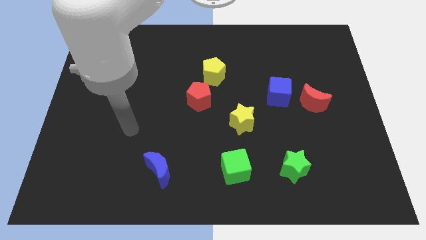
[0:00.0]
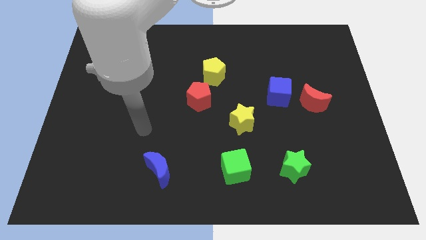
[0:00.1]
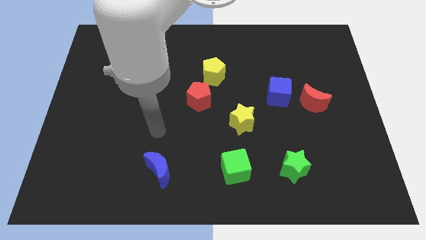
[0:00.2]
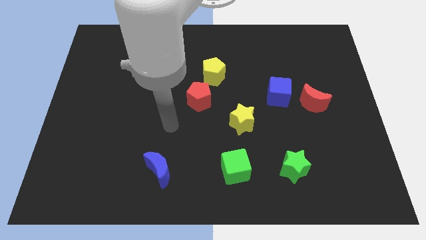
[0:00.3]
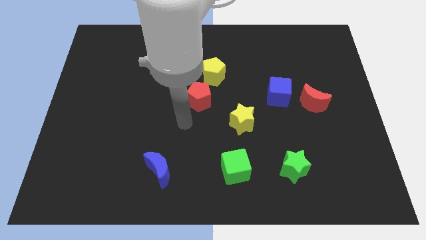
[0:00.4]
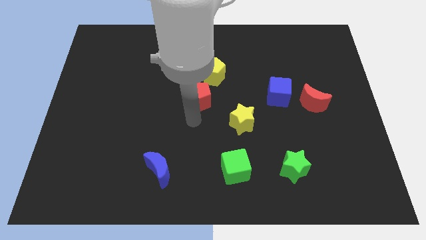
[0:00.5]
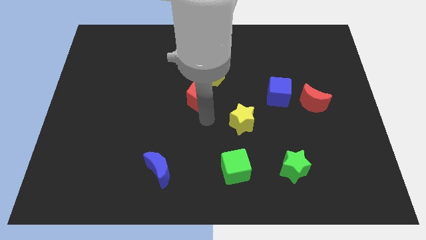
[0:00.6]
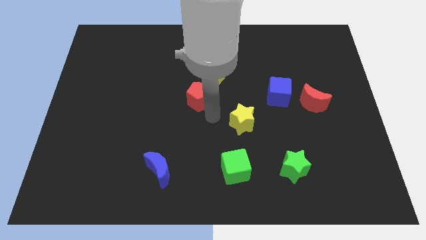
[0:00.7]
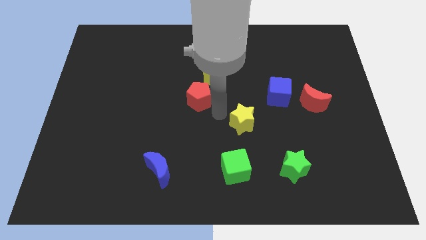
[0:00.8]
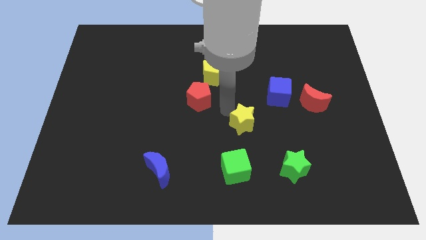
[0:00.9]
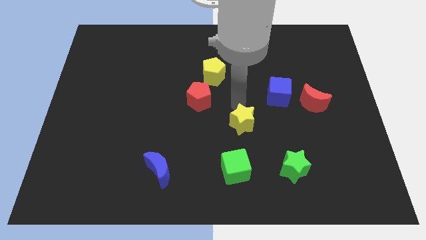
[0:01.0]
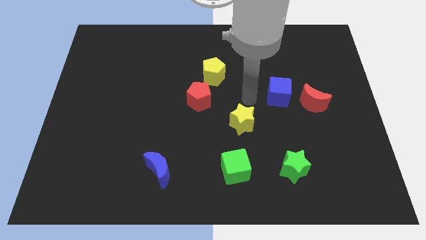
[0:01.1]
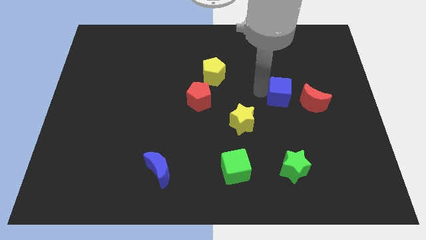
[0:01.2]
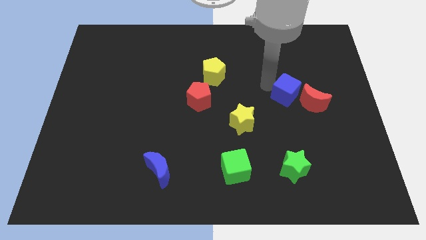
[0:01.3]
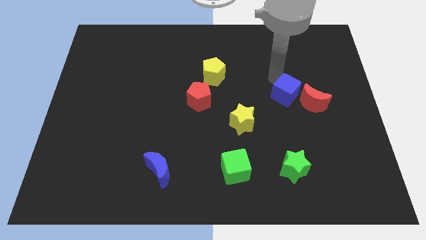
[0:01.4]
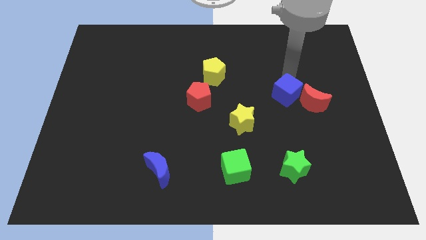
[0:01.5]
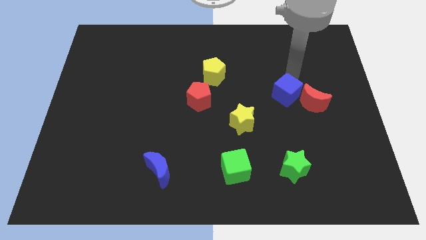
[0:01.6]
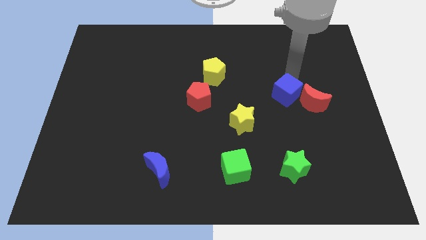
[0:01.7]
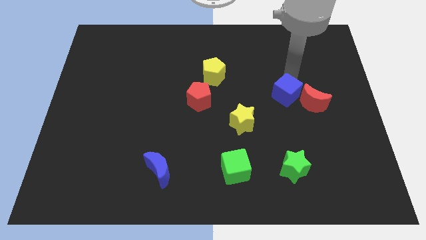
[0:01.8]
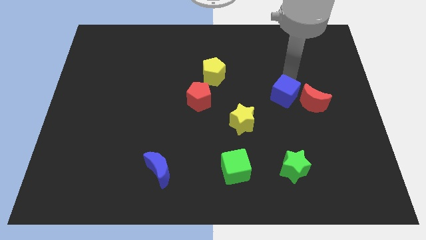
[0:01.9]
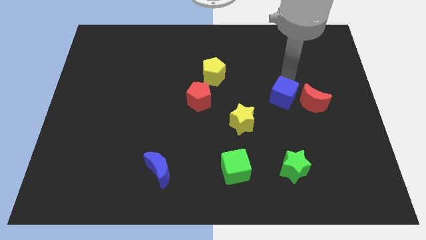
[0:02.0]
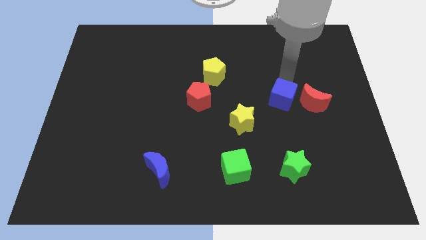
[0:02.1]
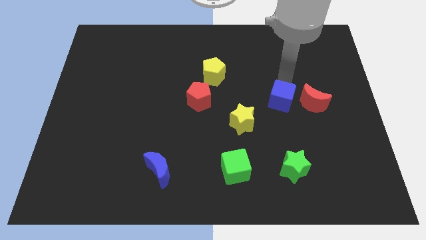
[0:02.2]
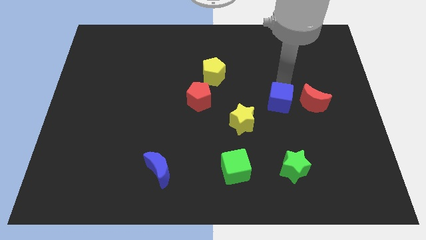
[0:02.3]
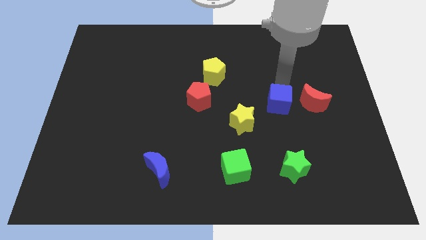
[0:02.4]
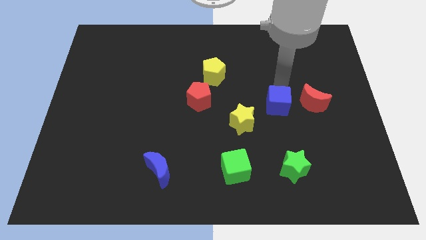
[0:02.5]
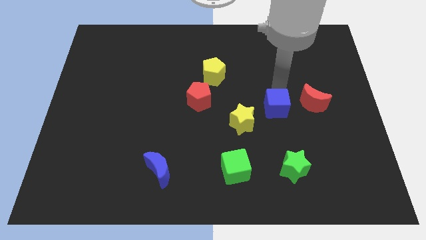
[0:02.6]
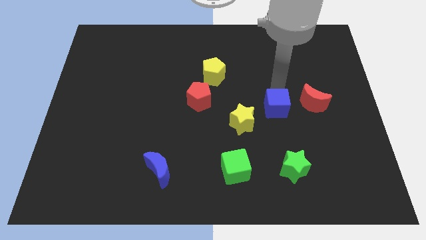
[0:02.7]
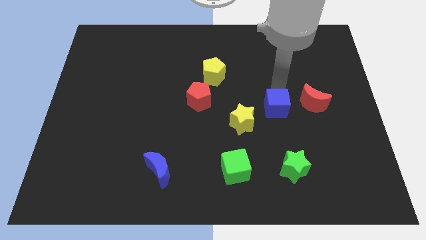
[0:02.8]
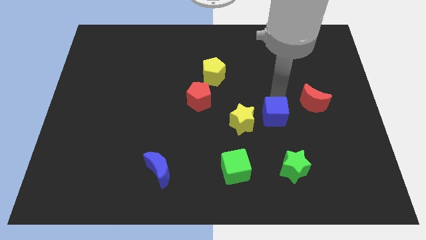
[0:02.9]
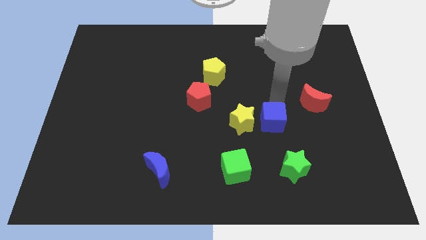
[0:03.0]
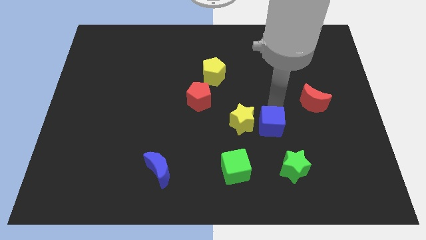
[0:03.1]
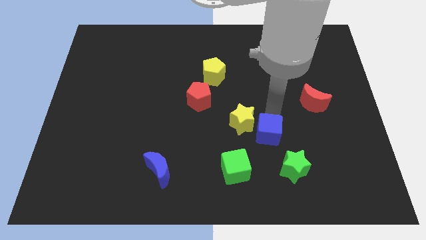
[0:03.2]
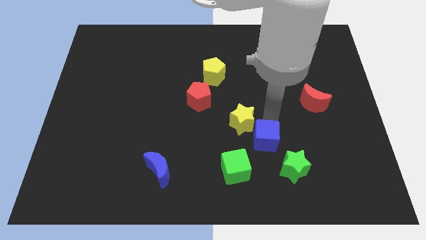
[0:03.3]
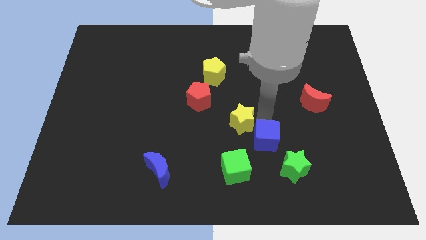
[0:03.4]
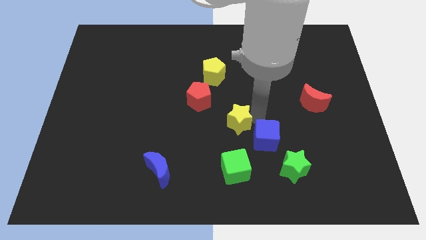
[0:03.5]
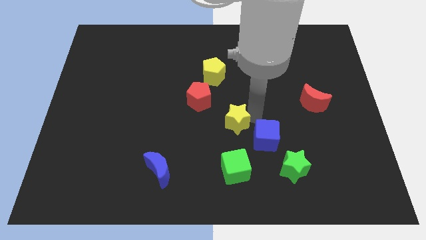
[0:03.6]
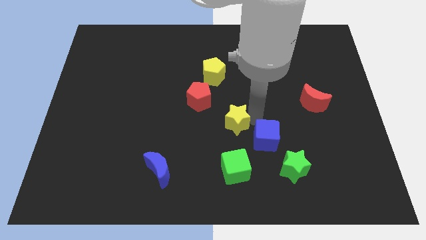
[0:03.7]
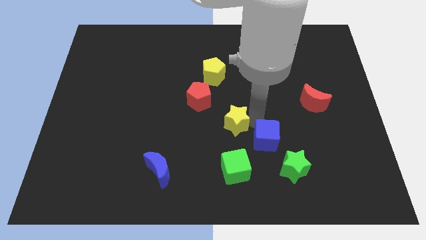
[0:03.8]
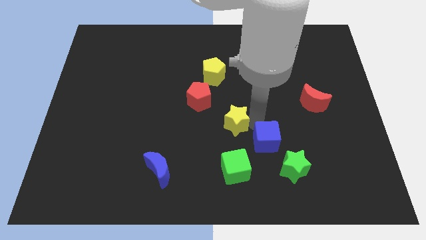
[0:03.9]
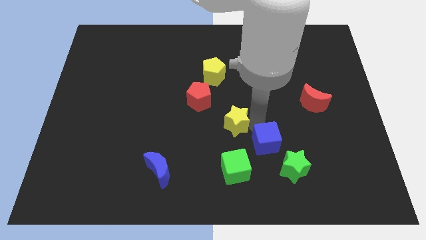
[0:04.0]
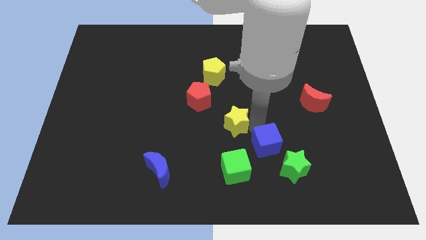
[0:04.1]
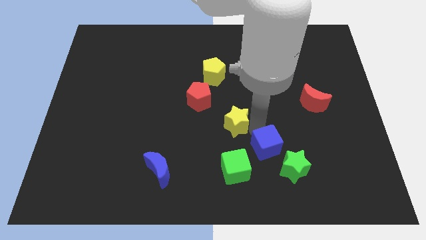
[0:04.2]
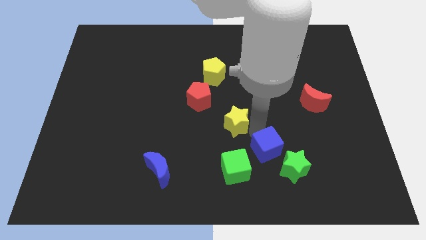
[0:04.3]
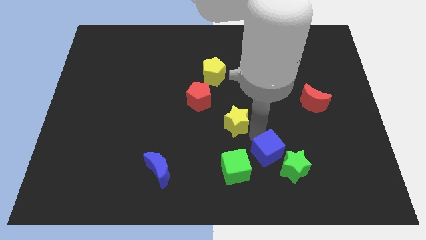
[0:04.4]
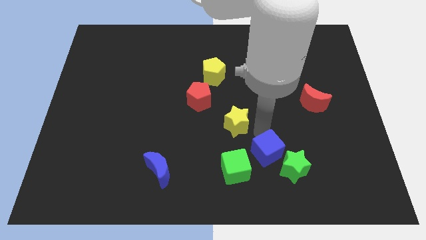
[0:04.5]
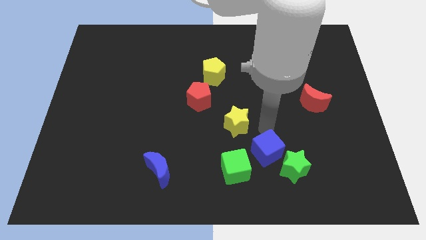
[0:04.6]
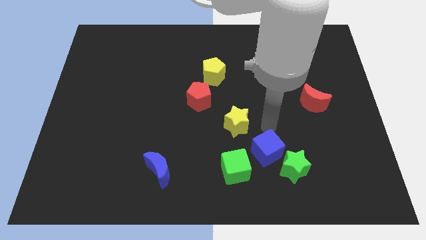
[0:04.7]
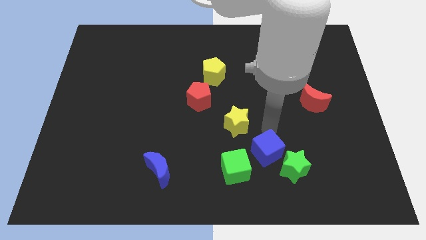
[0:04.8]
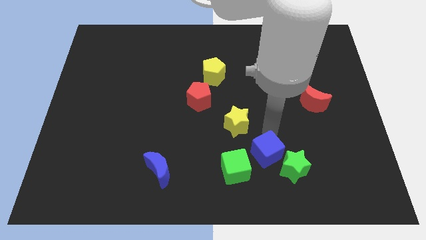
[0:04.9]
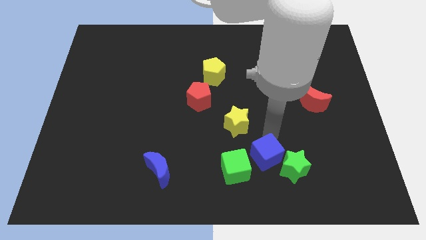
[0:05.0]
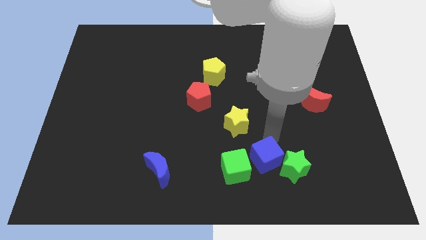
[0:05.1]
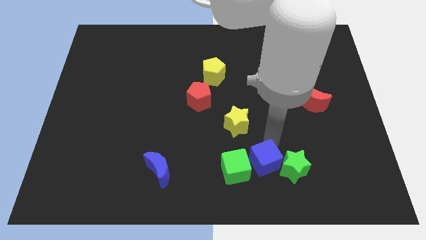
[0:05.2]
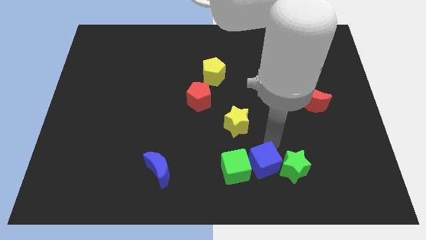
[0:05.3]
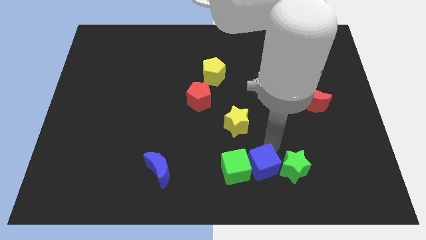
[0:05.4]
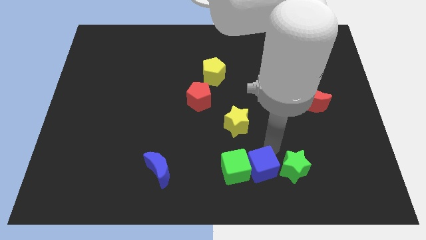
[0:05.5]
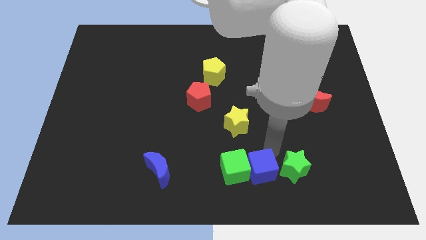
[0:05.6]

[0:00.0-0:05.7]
put the blue cube to the bottom
